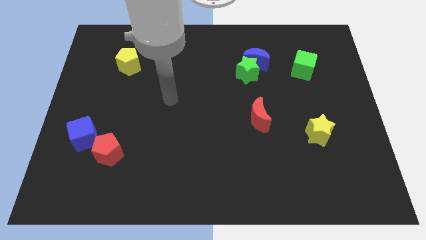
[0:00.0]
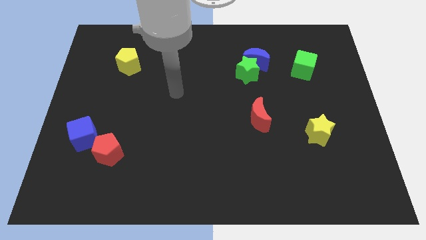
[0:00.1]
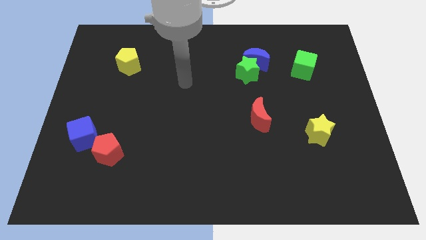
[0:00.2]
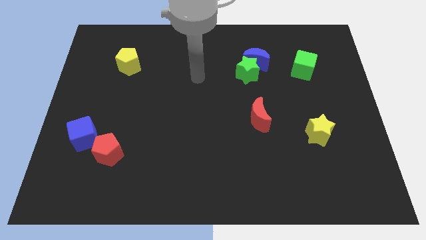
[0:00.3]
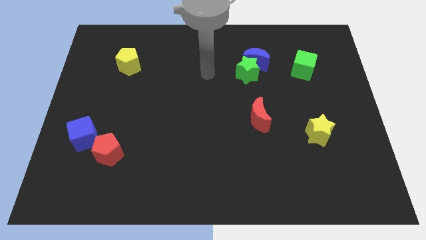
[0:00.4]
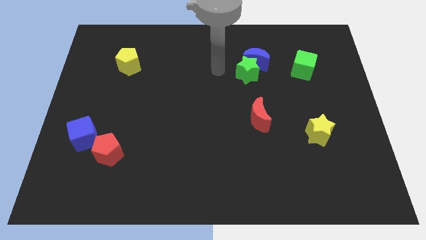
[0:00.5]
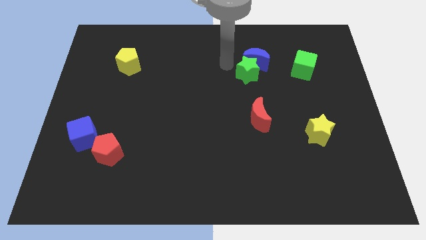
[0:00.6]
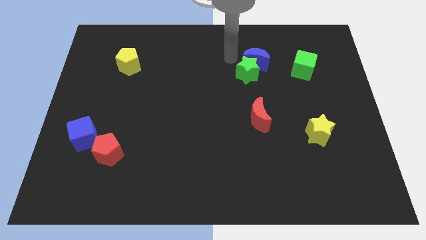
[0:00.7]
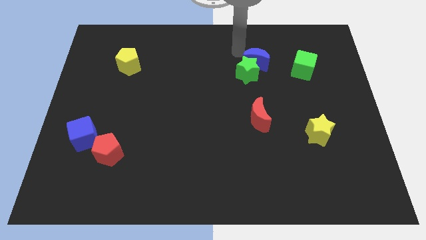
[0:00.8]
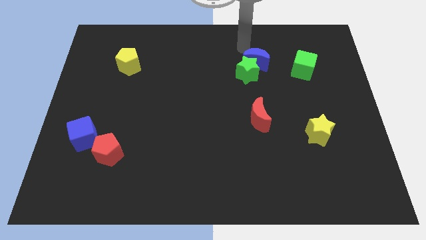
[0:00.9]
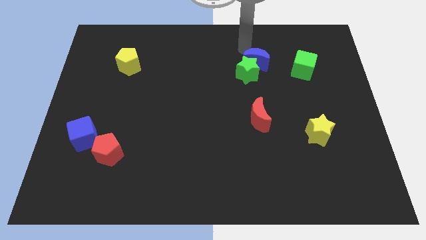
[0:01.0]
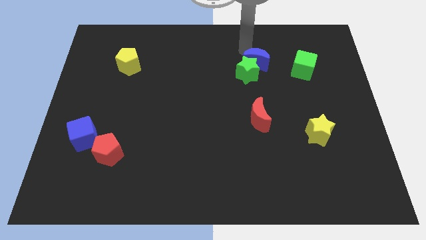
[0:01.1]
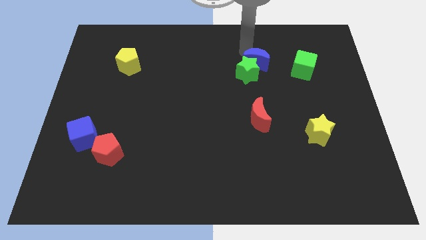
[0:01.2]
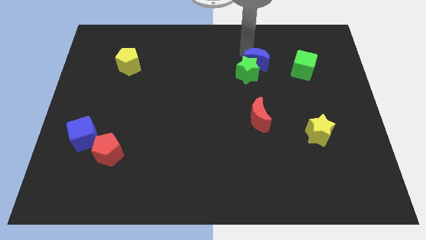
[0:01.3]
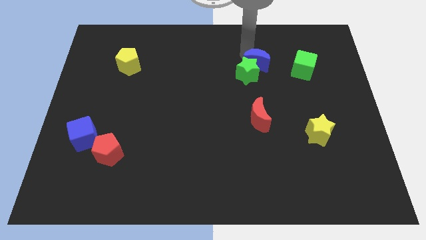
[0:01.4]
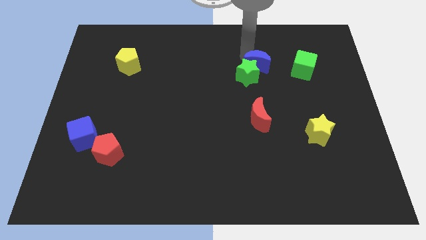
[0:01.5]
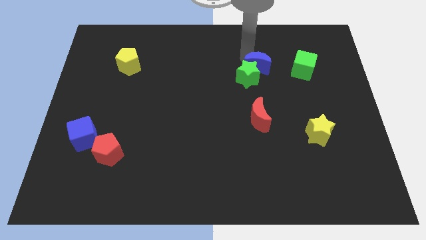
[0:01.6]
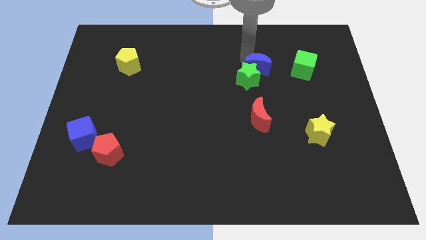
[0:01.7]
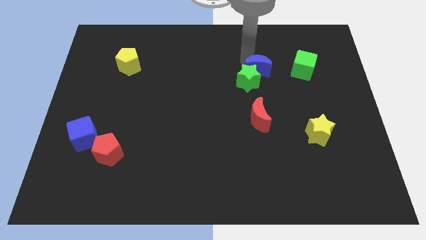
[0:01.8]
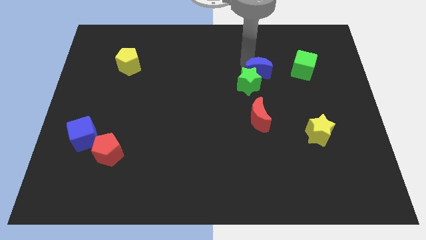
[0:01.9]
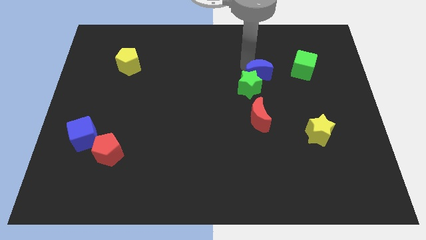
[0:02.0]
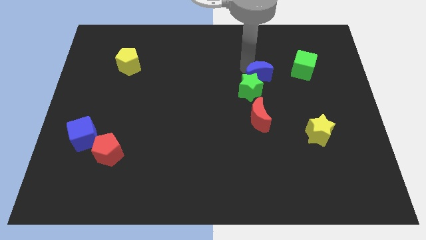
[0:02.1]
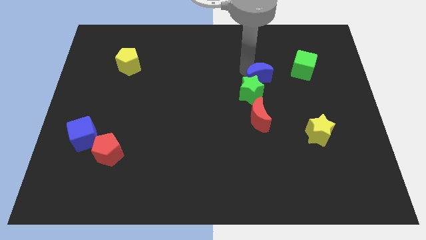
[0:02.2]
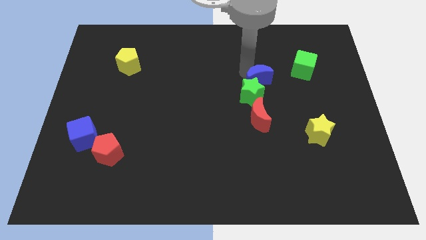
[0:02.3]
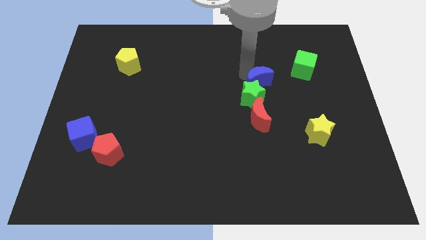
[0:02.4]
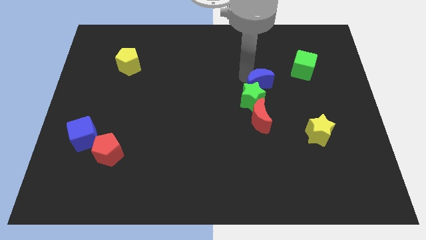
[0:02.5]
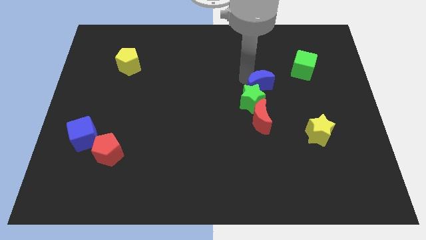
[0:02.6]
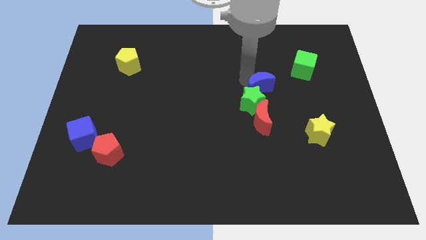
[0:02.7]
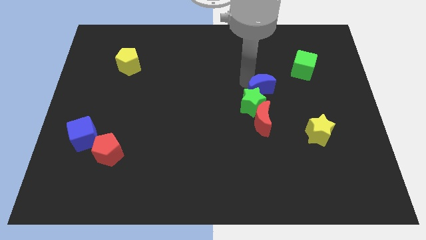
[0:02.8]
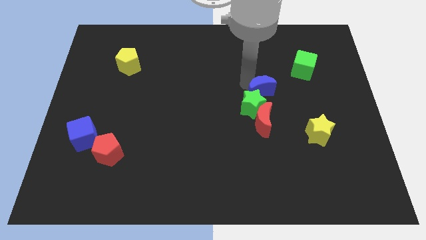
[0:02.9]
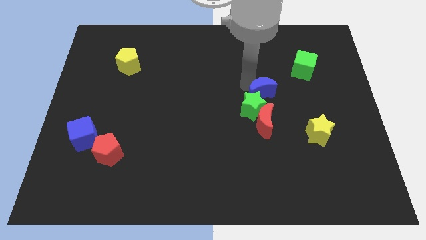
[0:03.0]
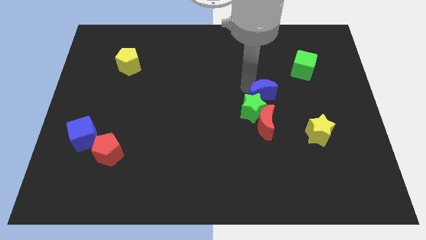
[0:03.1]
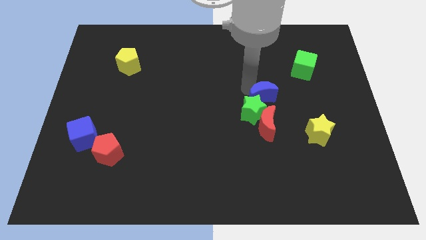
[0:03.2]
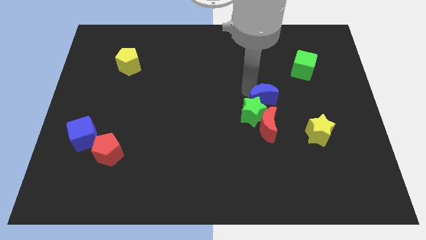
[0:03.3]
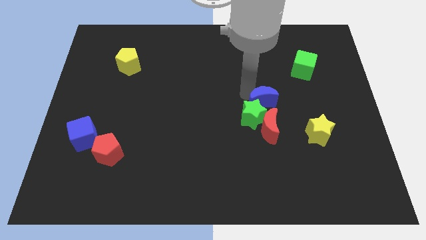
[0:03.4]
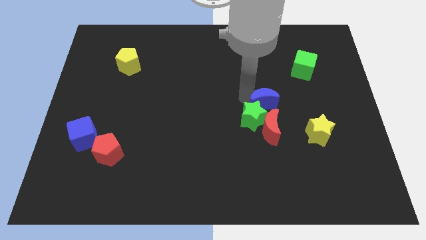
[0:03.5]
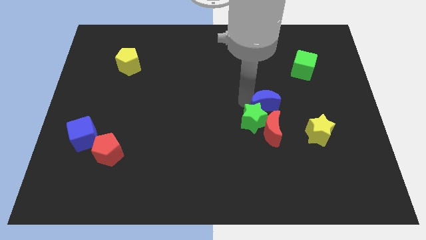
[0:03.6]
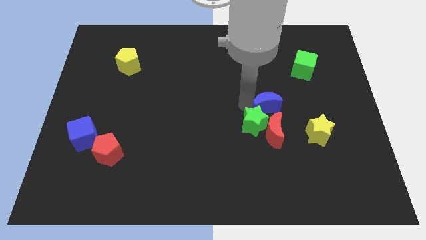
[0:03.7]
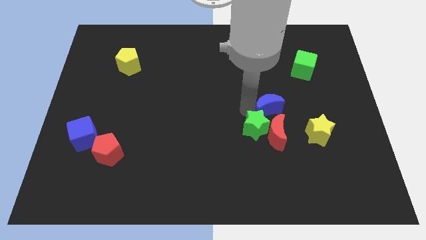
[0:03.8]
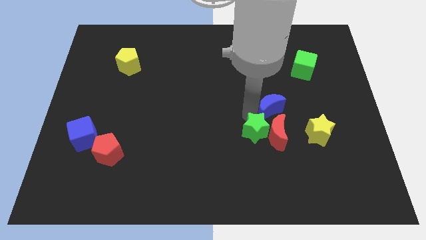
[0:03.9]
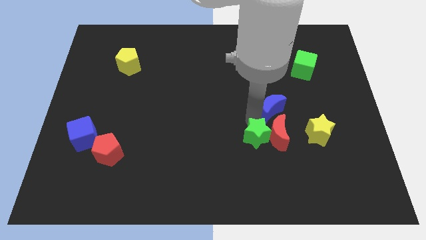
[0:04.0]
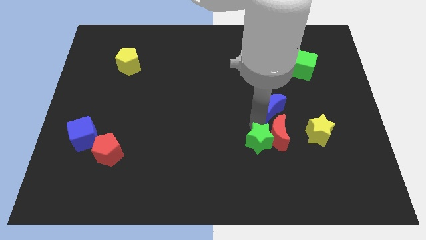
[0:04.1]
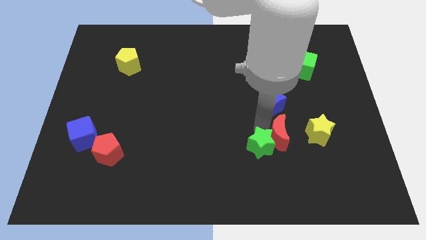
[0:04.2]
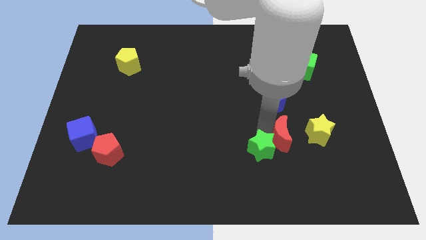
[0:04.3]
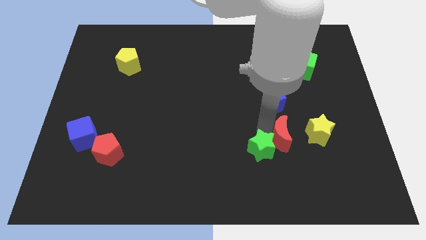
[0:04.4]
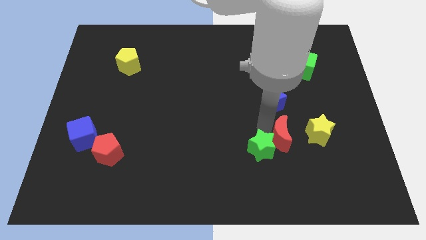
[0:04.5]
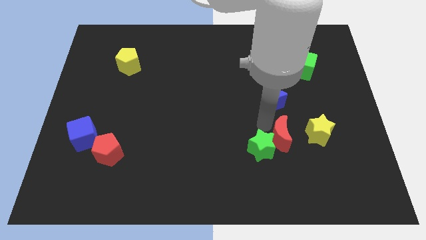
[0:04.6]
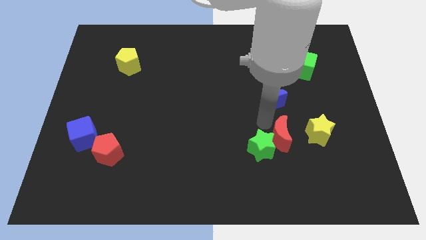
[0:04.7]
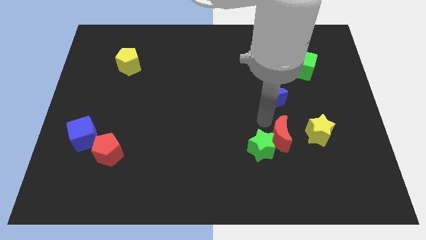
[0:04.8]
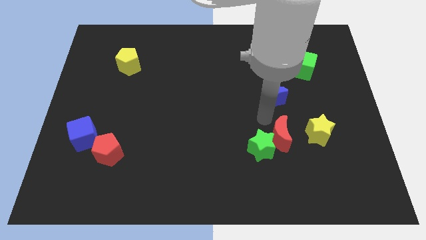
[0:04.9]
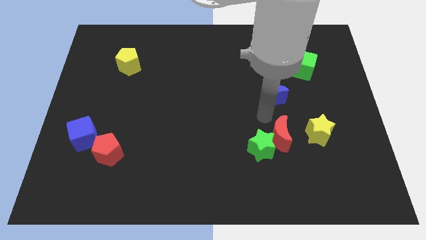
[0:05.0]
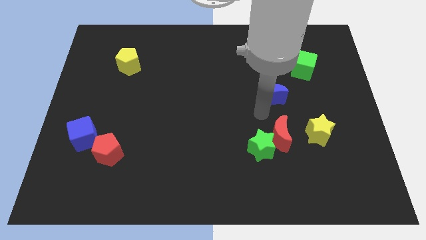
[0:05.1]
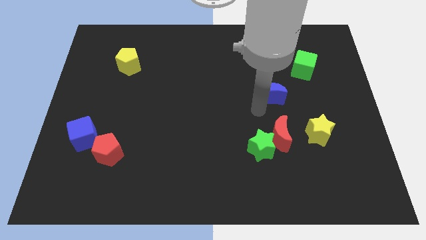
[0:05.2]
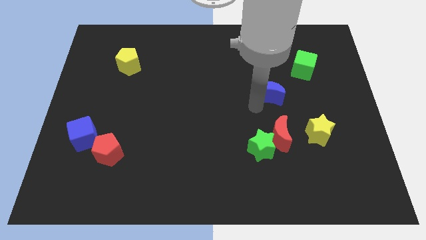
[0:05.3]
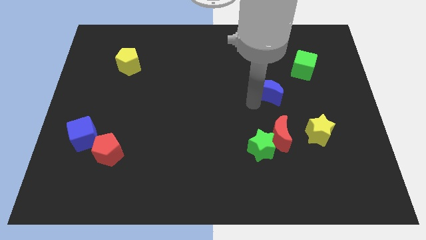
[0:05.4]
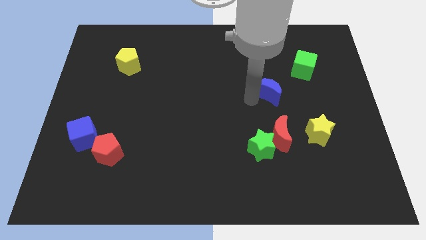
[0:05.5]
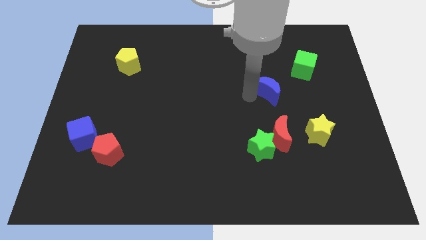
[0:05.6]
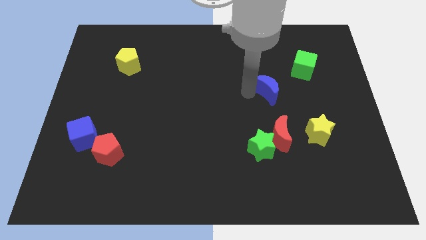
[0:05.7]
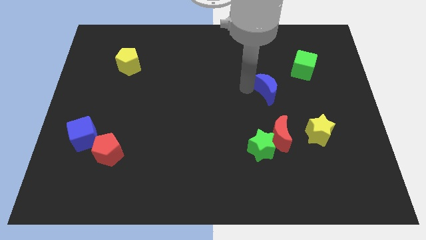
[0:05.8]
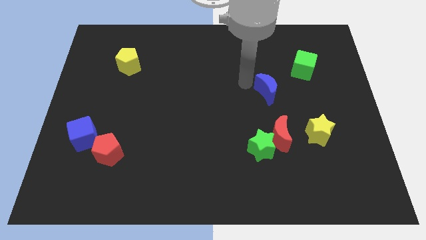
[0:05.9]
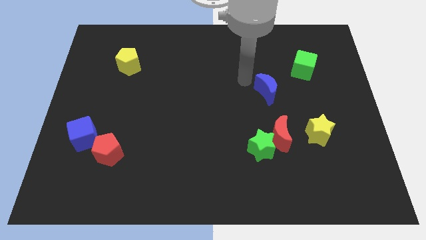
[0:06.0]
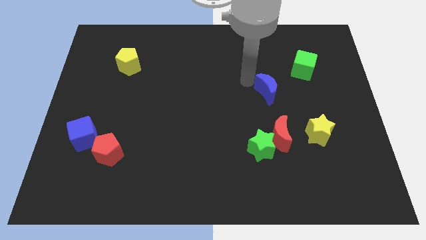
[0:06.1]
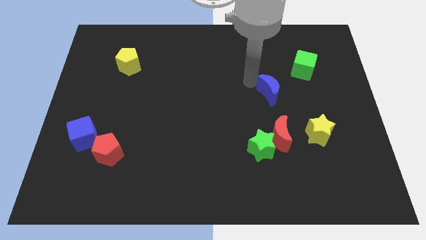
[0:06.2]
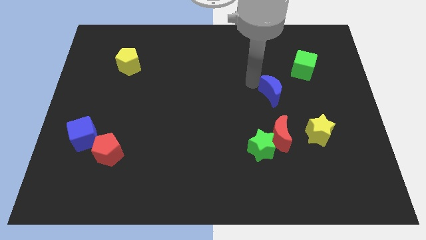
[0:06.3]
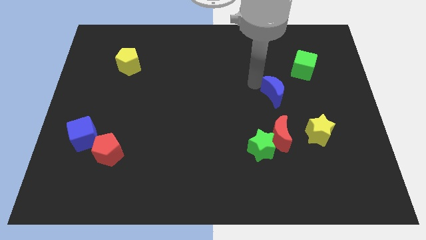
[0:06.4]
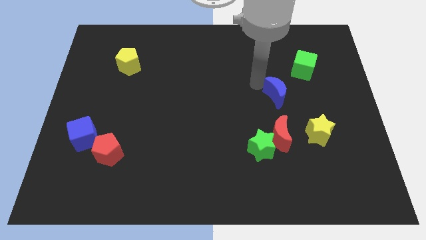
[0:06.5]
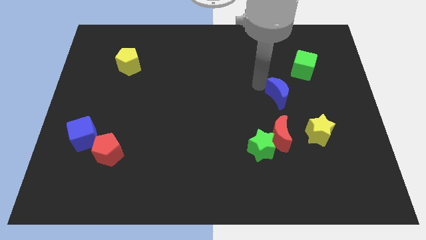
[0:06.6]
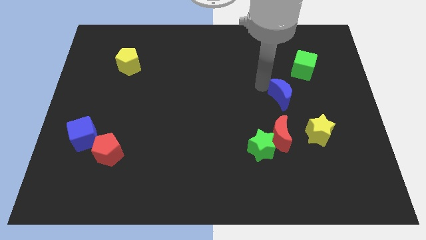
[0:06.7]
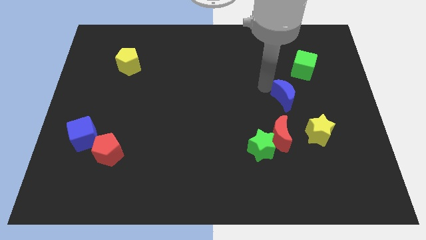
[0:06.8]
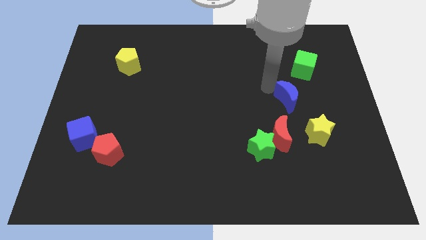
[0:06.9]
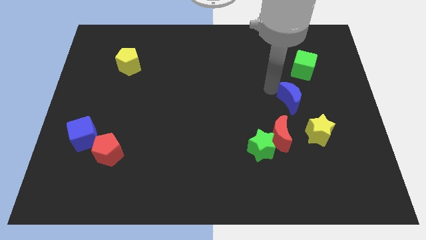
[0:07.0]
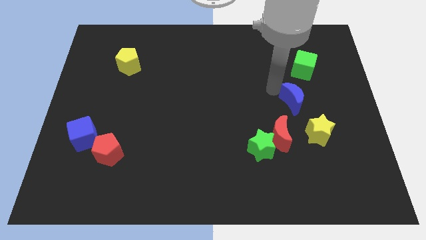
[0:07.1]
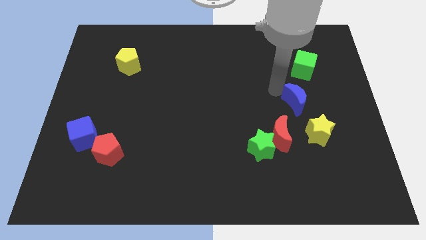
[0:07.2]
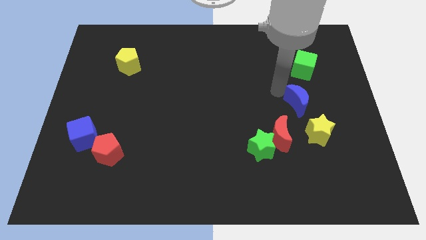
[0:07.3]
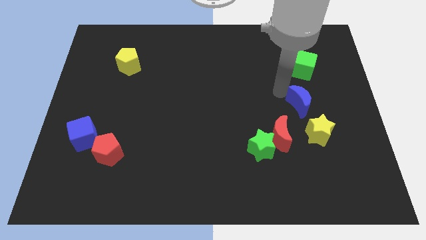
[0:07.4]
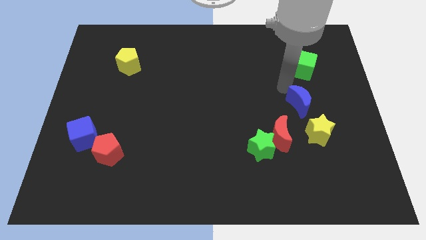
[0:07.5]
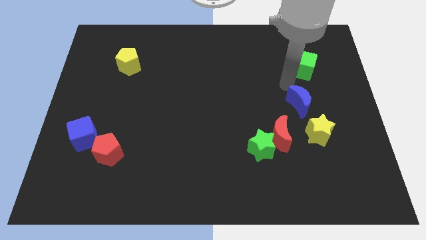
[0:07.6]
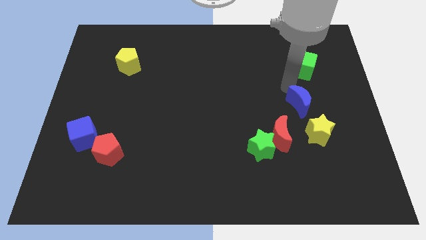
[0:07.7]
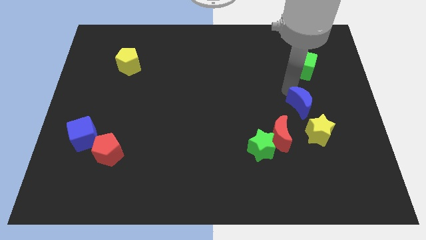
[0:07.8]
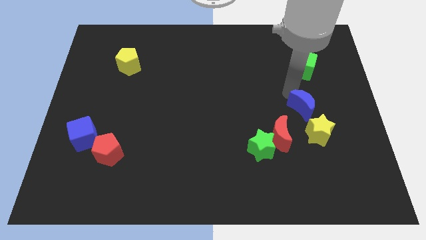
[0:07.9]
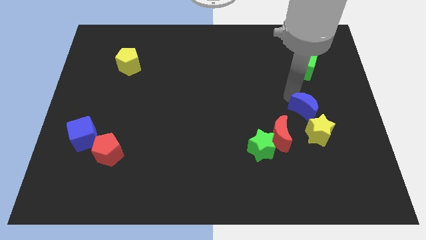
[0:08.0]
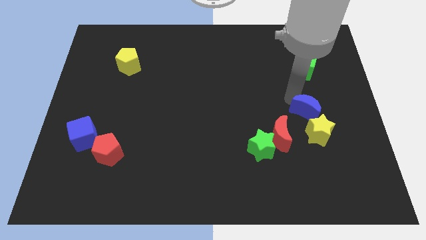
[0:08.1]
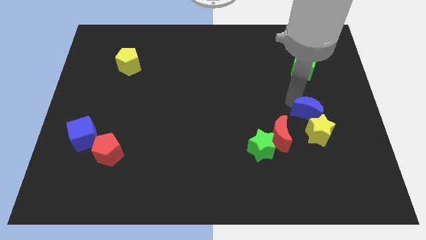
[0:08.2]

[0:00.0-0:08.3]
slide the blue moon close to the yellow star
